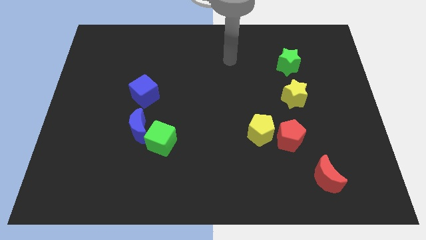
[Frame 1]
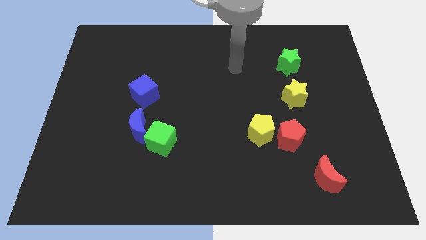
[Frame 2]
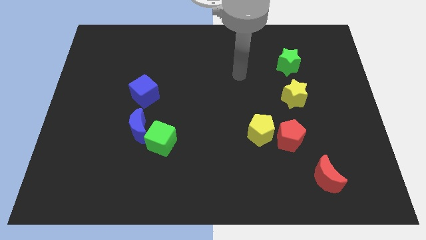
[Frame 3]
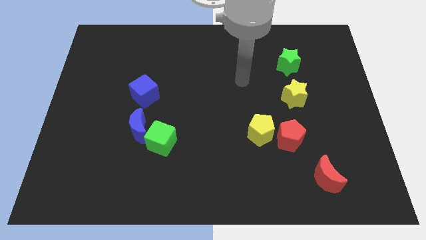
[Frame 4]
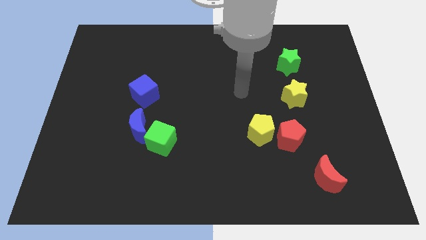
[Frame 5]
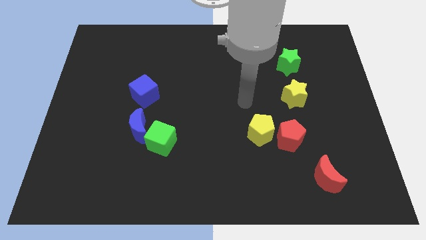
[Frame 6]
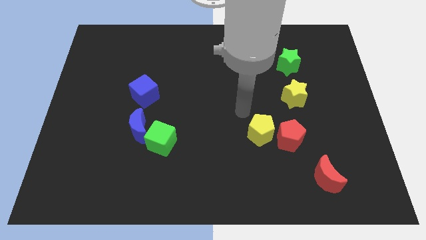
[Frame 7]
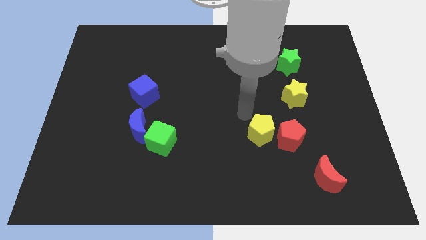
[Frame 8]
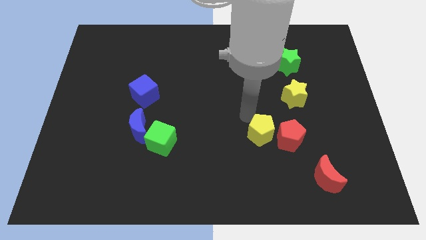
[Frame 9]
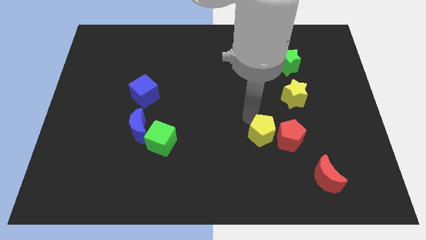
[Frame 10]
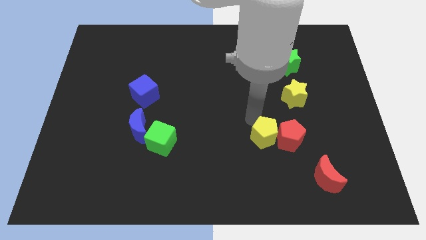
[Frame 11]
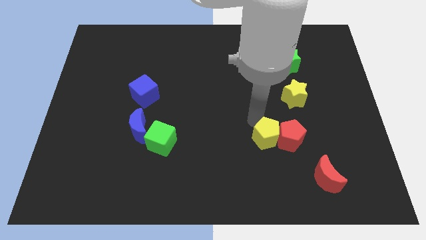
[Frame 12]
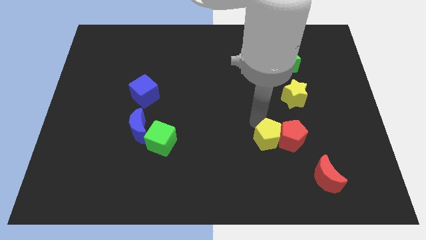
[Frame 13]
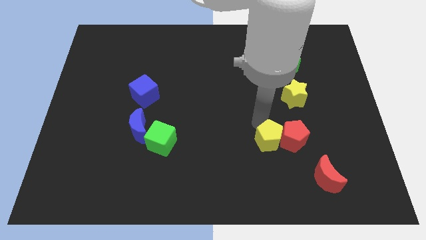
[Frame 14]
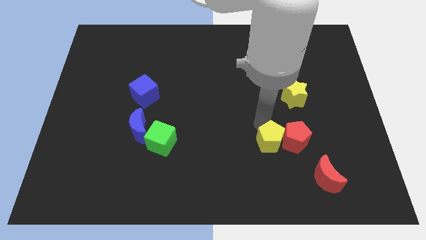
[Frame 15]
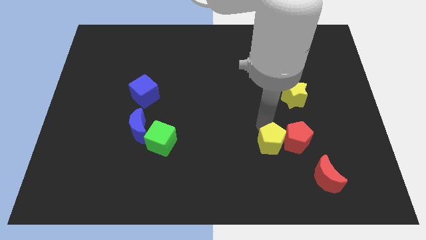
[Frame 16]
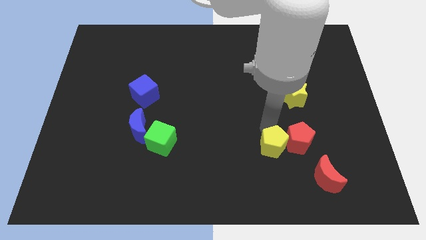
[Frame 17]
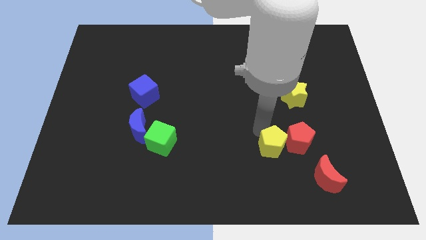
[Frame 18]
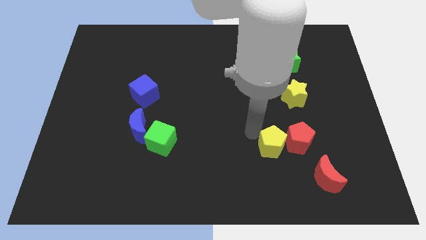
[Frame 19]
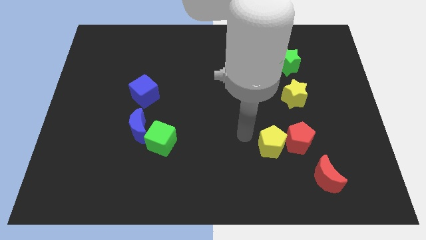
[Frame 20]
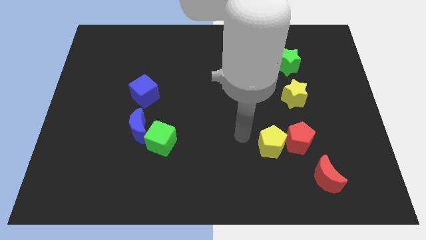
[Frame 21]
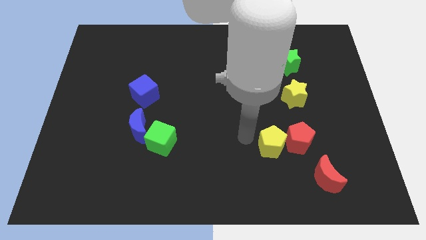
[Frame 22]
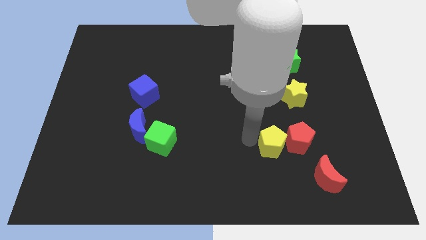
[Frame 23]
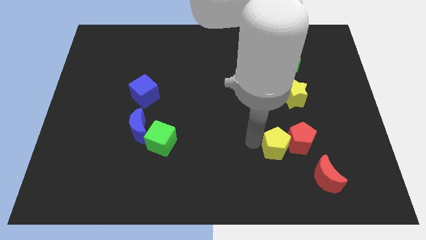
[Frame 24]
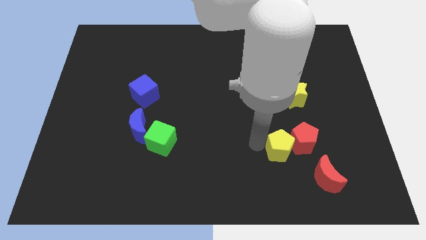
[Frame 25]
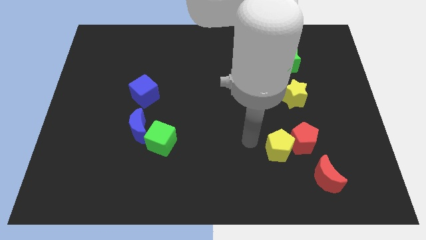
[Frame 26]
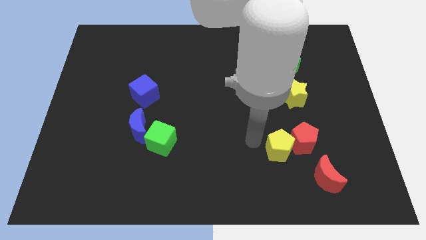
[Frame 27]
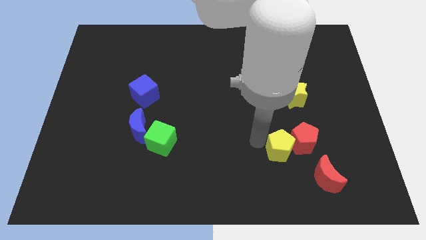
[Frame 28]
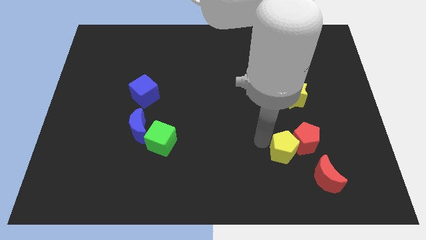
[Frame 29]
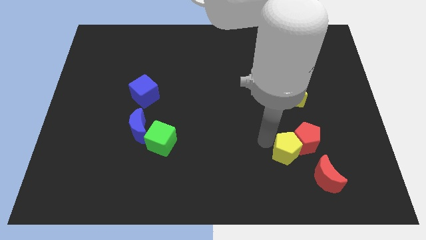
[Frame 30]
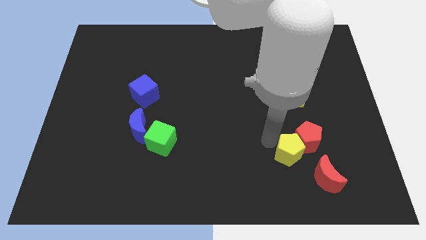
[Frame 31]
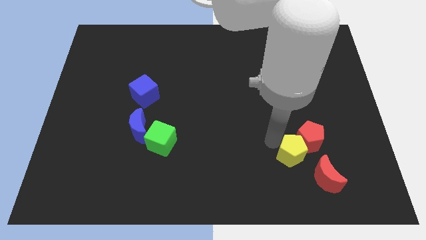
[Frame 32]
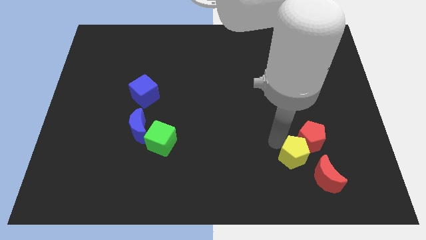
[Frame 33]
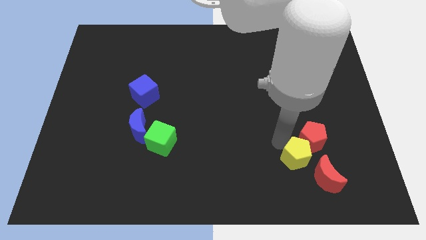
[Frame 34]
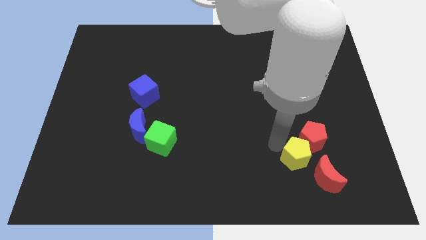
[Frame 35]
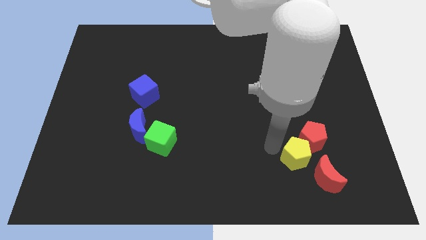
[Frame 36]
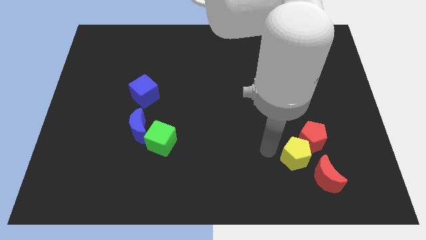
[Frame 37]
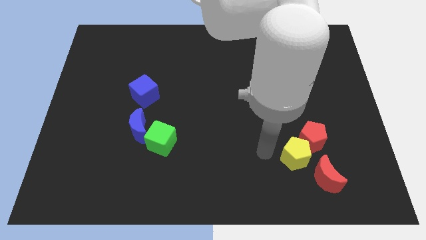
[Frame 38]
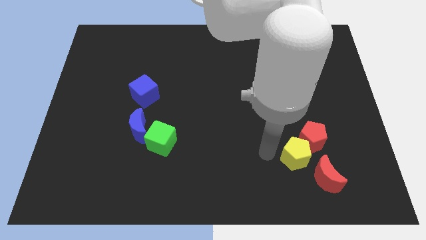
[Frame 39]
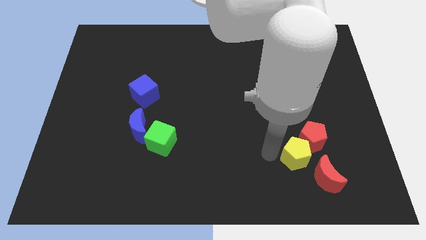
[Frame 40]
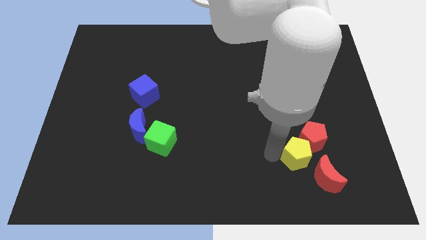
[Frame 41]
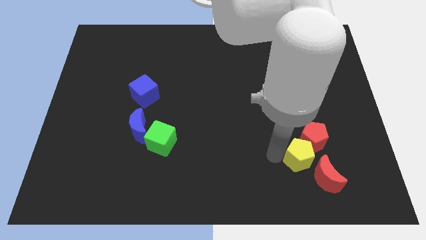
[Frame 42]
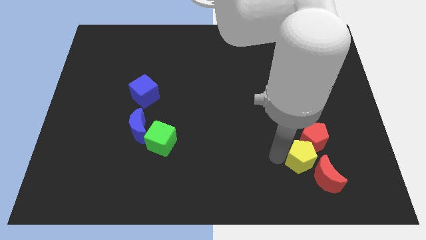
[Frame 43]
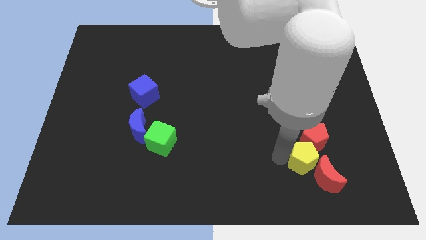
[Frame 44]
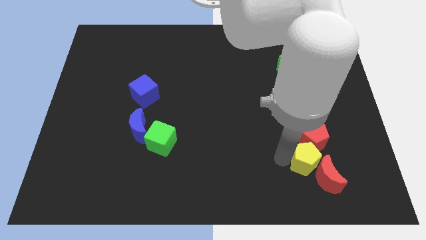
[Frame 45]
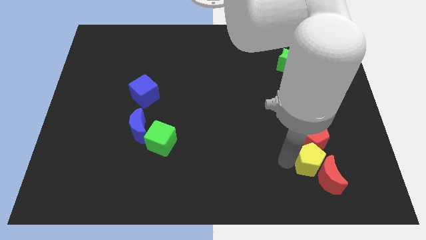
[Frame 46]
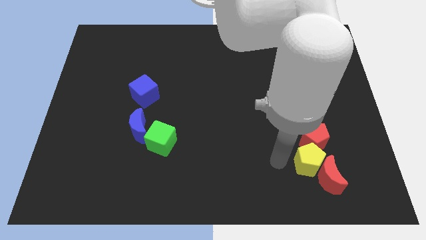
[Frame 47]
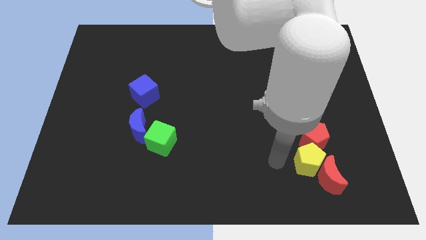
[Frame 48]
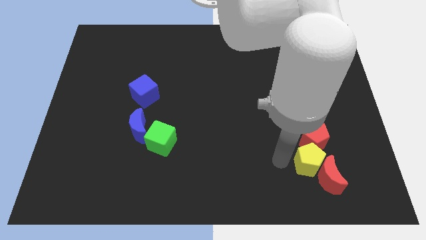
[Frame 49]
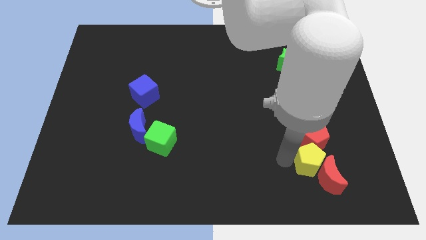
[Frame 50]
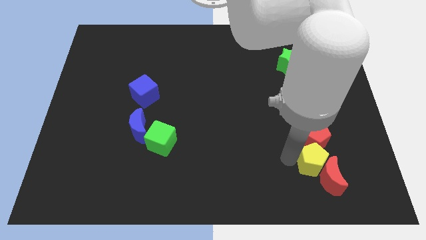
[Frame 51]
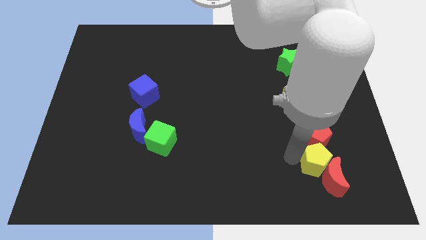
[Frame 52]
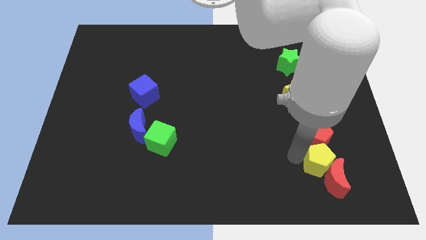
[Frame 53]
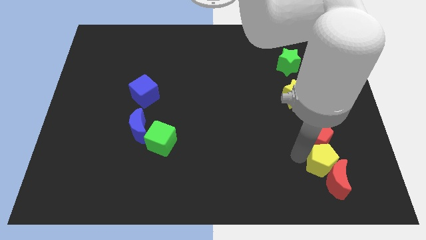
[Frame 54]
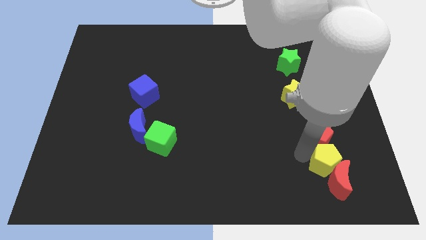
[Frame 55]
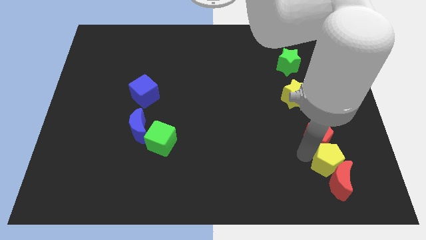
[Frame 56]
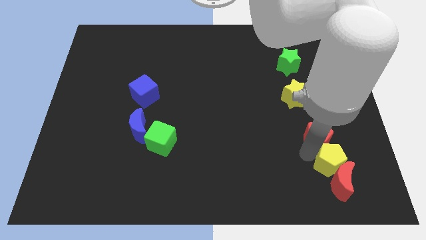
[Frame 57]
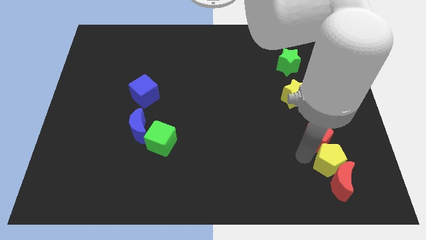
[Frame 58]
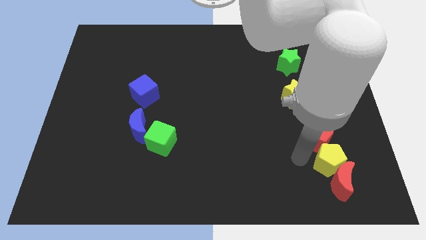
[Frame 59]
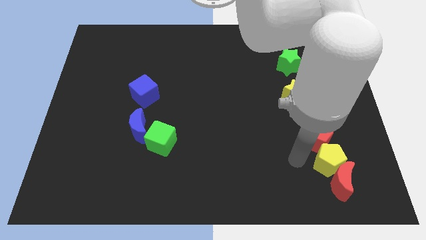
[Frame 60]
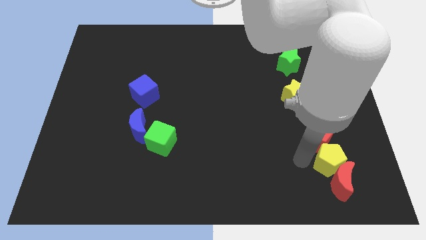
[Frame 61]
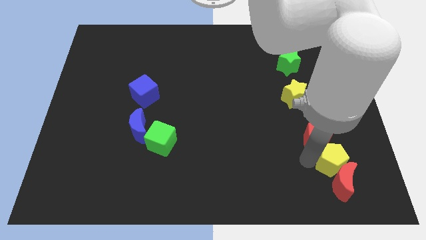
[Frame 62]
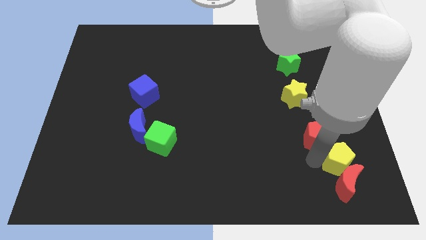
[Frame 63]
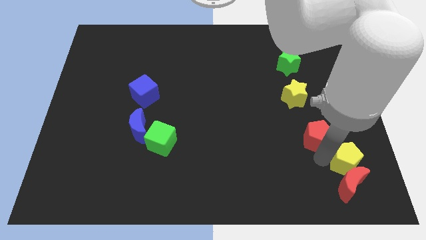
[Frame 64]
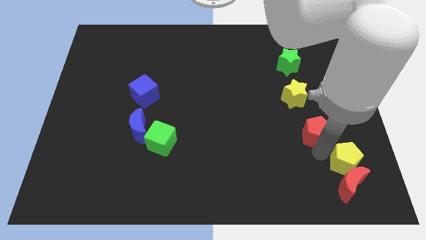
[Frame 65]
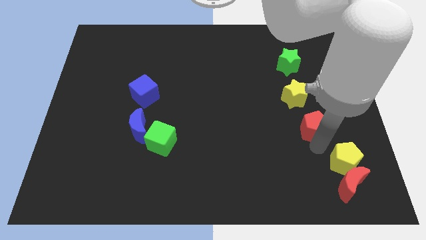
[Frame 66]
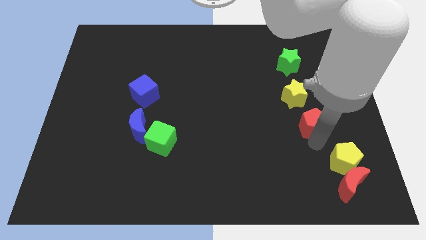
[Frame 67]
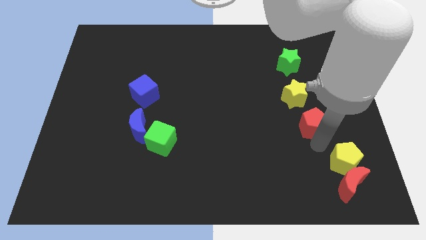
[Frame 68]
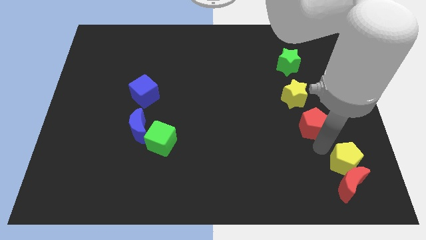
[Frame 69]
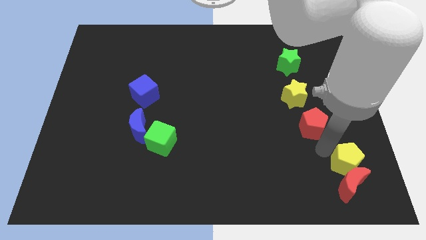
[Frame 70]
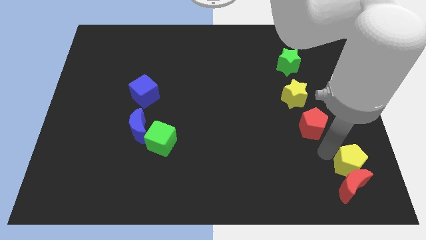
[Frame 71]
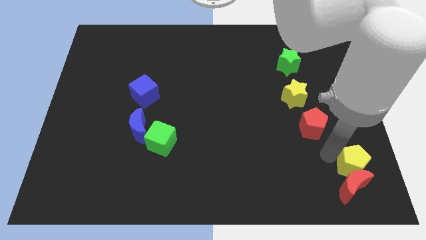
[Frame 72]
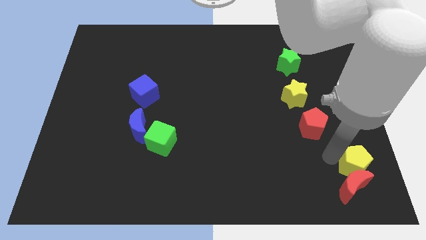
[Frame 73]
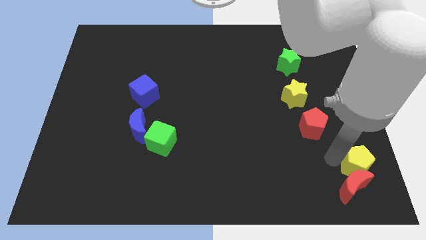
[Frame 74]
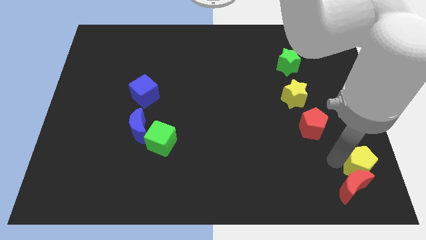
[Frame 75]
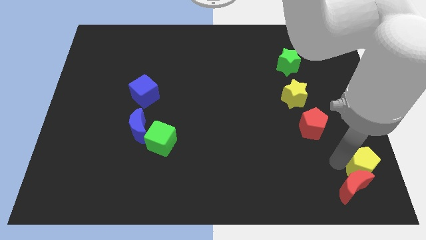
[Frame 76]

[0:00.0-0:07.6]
push the yellow pentagon to the bottom right of the board
